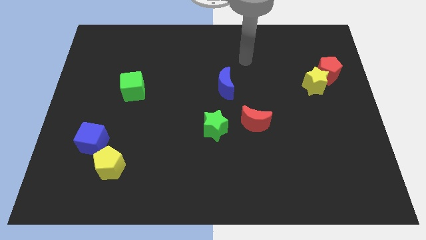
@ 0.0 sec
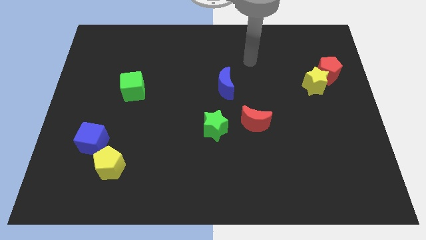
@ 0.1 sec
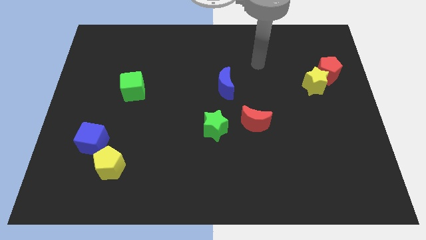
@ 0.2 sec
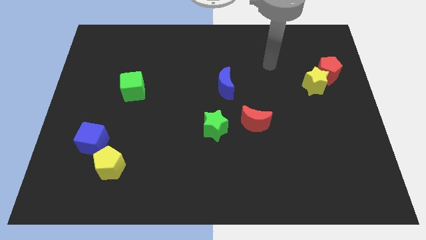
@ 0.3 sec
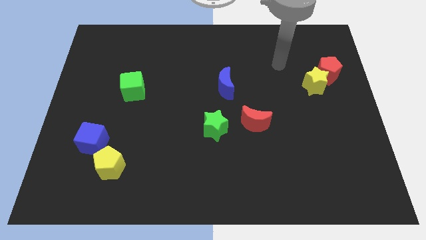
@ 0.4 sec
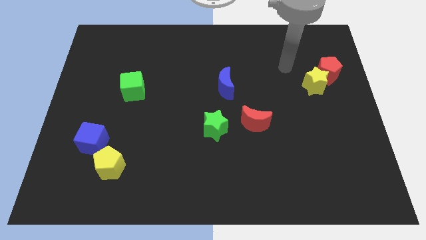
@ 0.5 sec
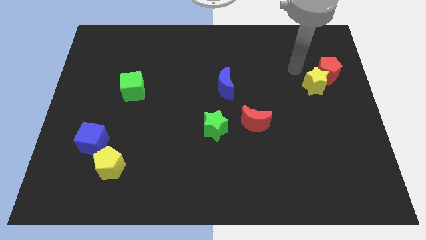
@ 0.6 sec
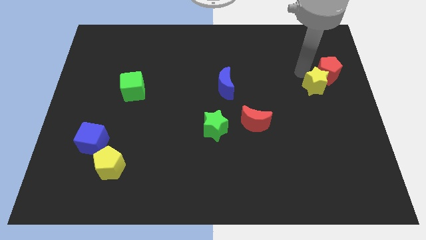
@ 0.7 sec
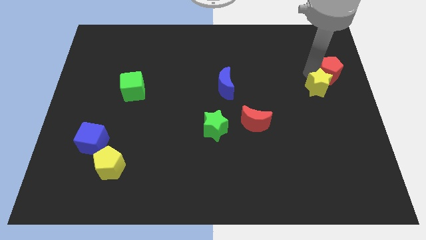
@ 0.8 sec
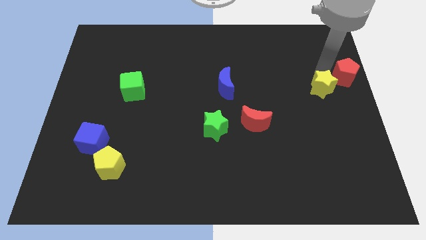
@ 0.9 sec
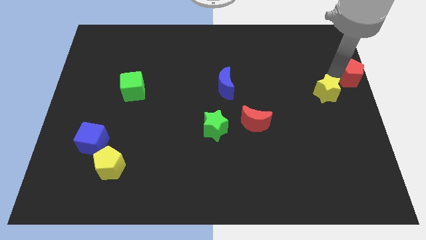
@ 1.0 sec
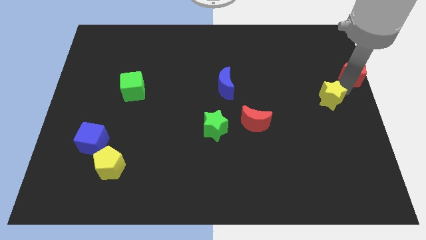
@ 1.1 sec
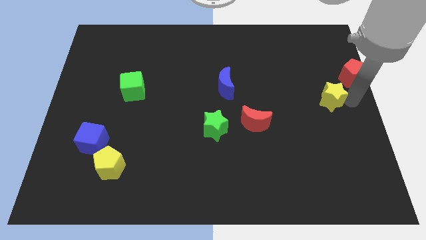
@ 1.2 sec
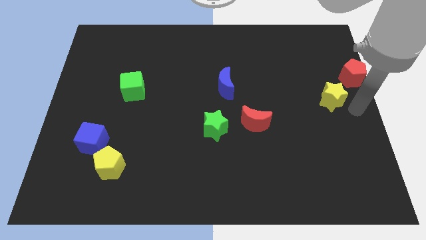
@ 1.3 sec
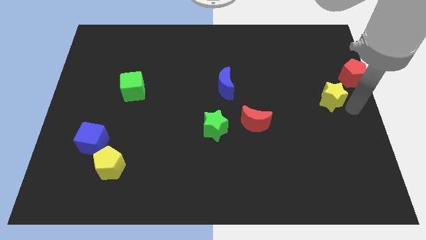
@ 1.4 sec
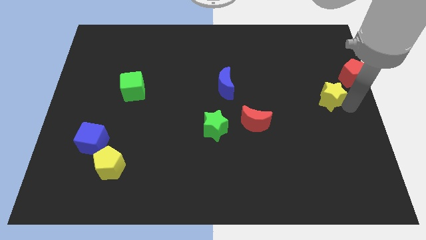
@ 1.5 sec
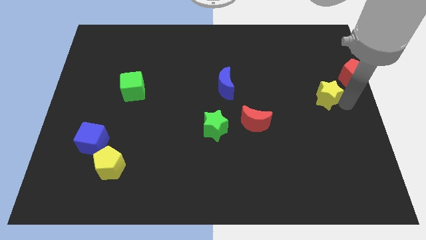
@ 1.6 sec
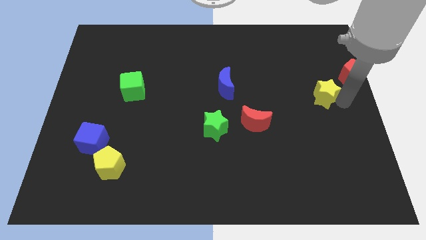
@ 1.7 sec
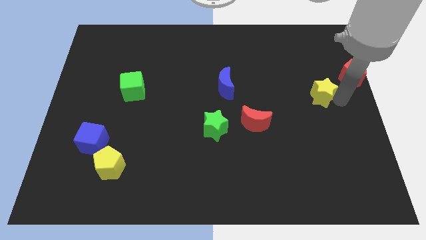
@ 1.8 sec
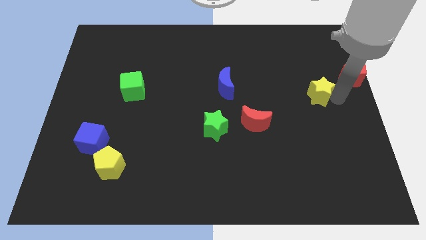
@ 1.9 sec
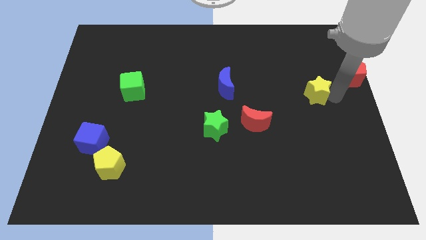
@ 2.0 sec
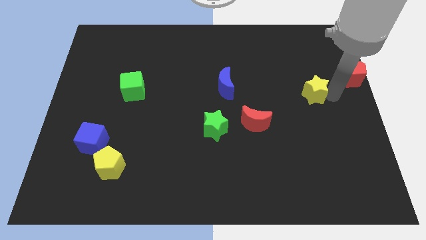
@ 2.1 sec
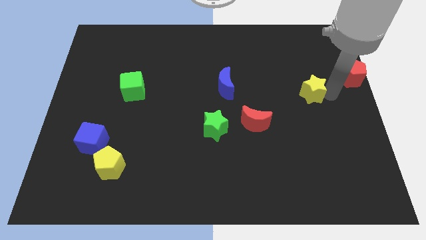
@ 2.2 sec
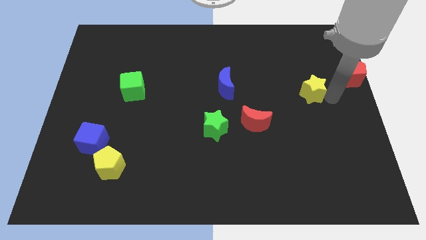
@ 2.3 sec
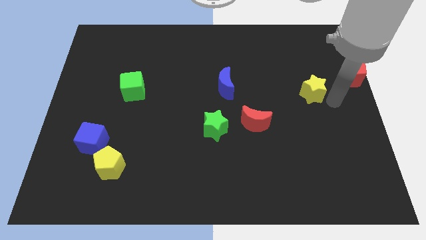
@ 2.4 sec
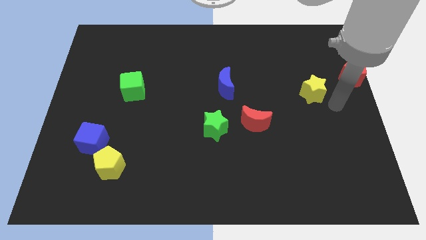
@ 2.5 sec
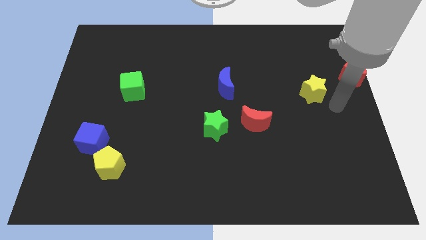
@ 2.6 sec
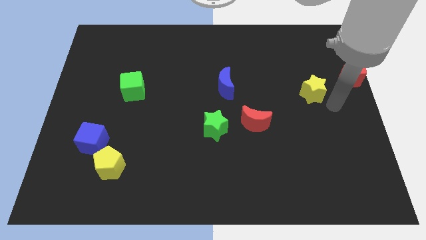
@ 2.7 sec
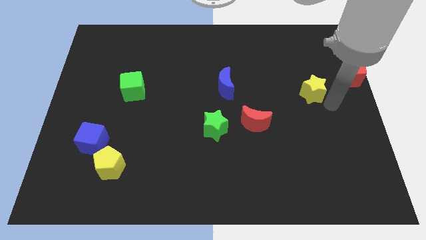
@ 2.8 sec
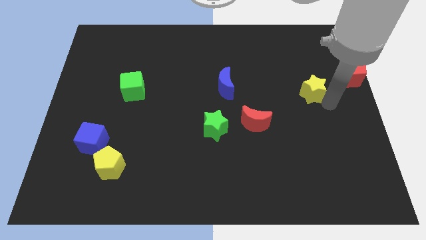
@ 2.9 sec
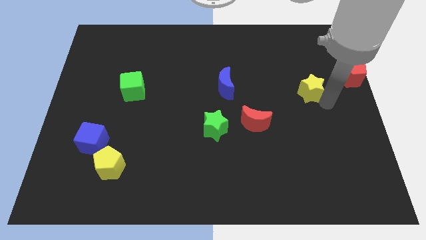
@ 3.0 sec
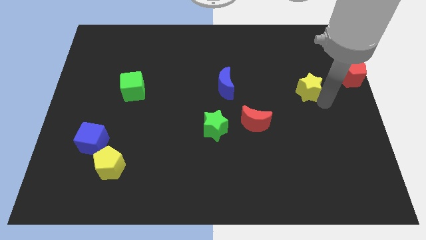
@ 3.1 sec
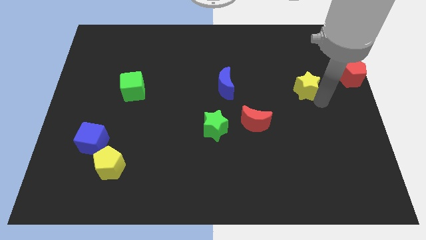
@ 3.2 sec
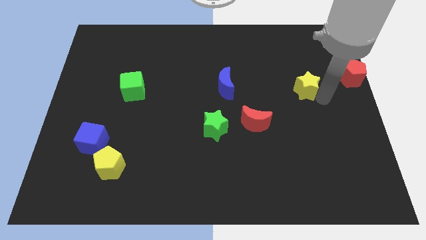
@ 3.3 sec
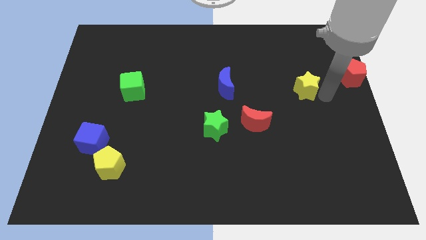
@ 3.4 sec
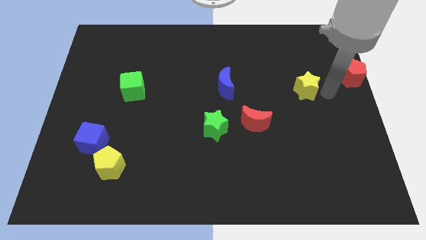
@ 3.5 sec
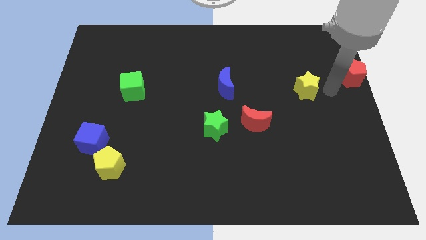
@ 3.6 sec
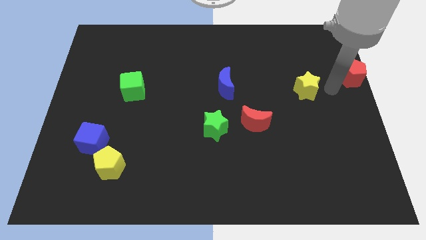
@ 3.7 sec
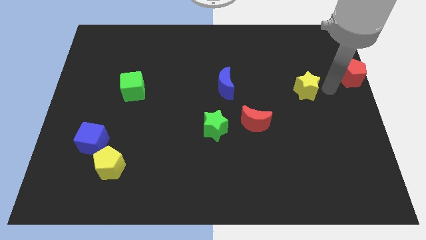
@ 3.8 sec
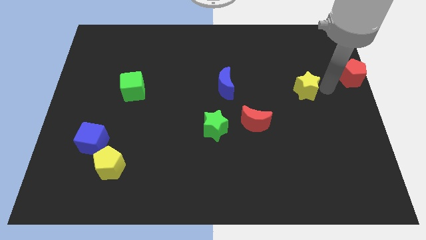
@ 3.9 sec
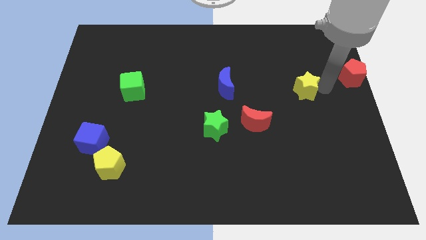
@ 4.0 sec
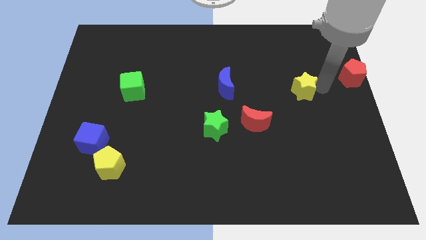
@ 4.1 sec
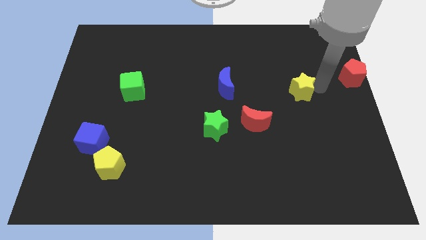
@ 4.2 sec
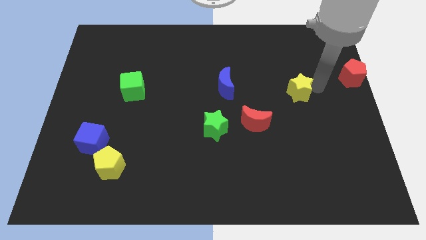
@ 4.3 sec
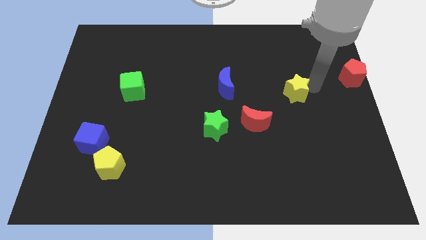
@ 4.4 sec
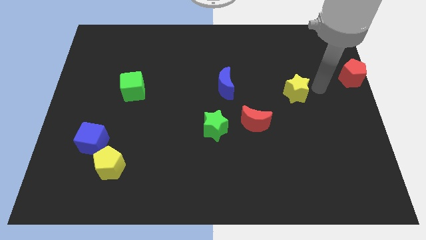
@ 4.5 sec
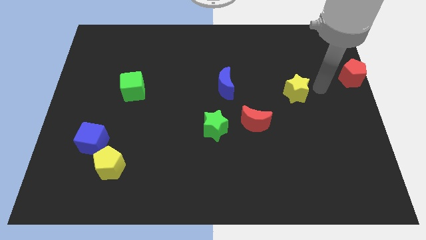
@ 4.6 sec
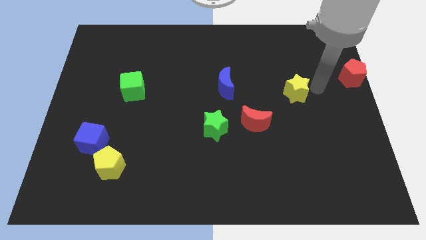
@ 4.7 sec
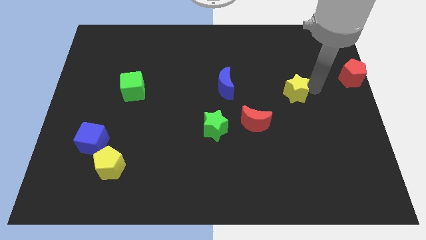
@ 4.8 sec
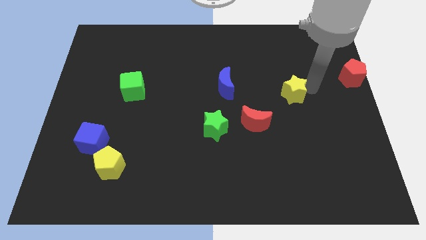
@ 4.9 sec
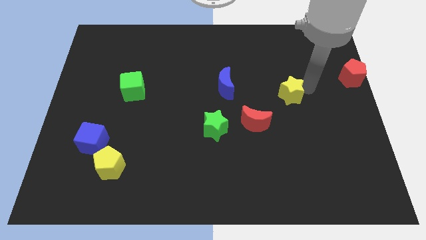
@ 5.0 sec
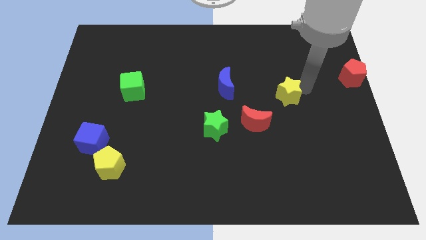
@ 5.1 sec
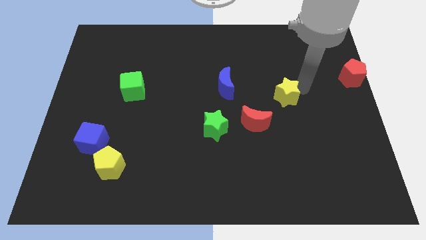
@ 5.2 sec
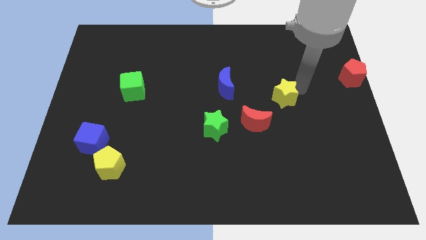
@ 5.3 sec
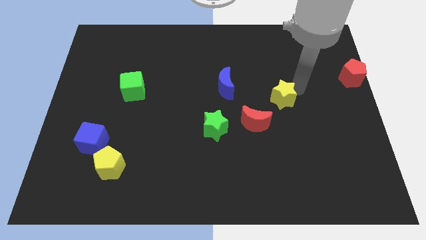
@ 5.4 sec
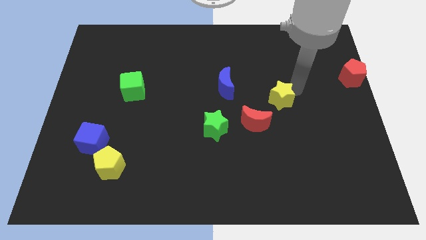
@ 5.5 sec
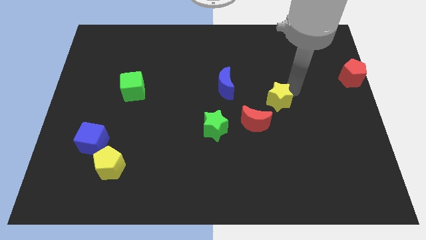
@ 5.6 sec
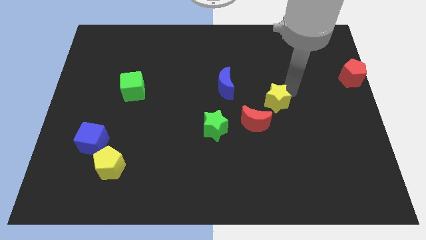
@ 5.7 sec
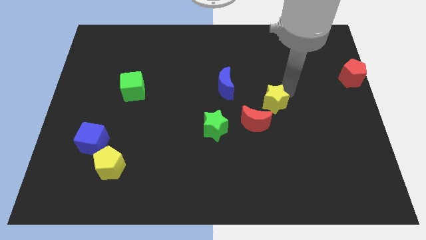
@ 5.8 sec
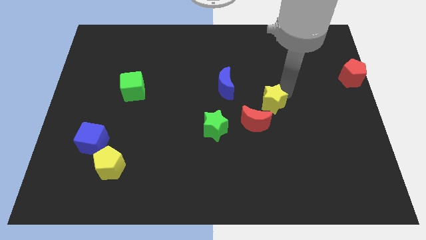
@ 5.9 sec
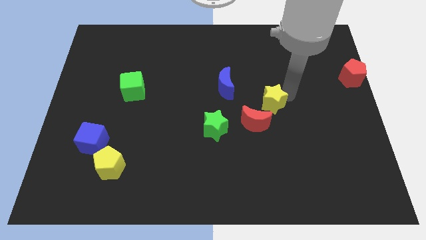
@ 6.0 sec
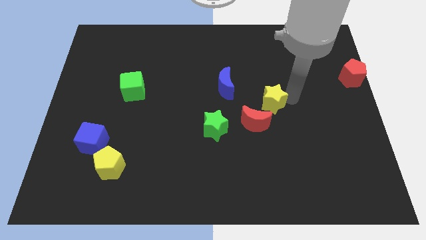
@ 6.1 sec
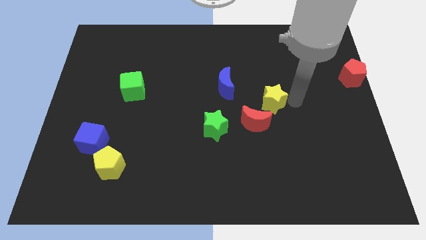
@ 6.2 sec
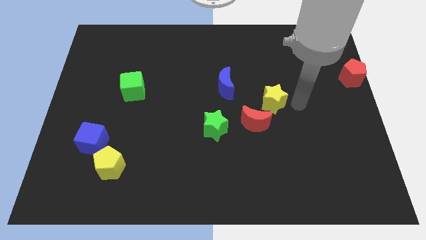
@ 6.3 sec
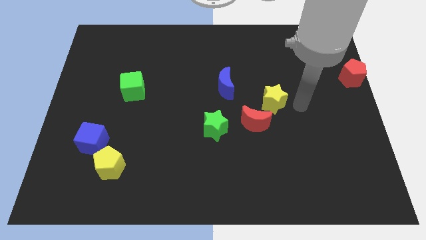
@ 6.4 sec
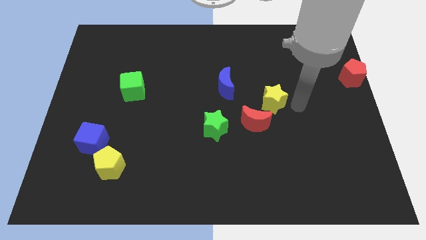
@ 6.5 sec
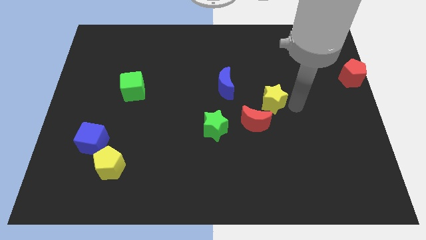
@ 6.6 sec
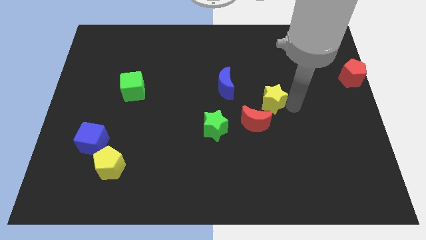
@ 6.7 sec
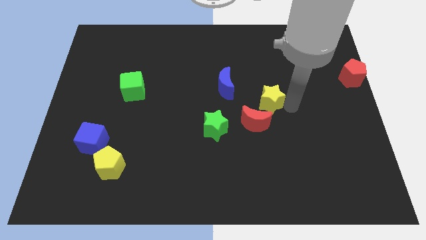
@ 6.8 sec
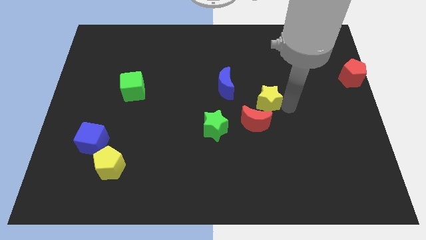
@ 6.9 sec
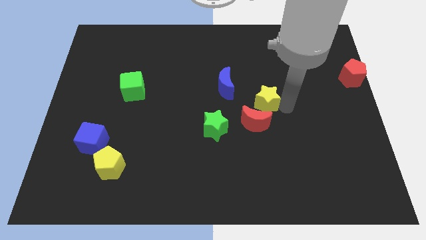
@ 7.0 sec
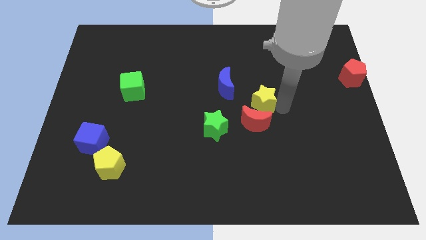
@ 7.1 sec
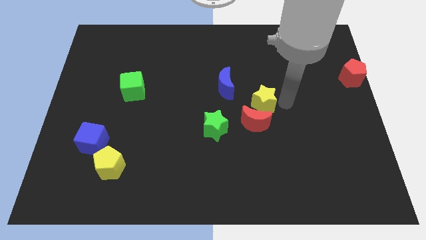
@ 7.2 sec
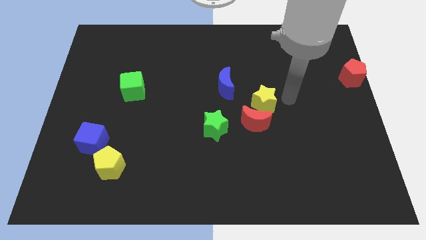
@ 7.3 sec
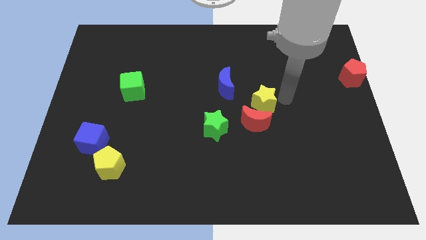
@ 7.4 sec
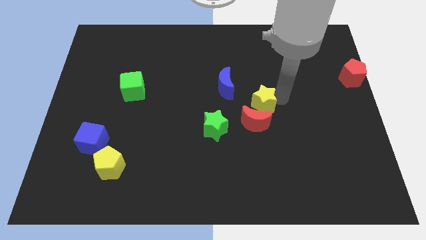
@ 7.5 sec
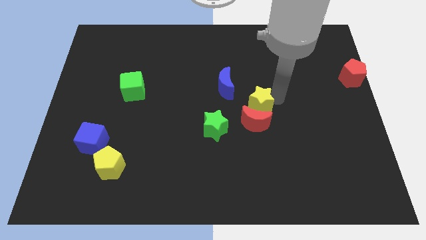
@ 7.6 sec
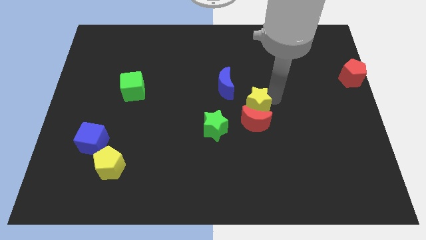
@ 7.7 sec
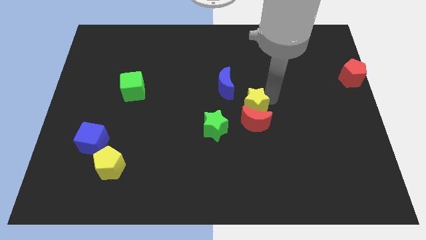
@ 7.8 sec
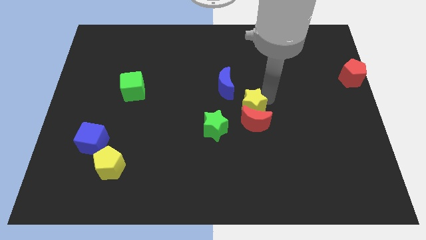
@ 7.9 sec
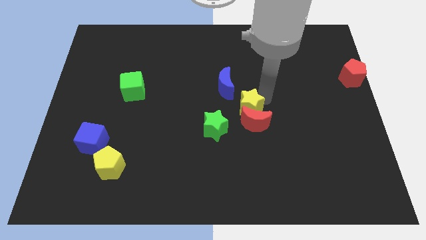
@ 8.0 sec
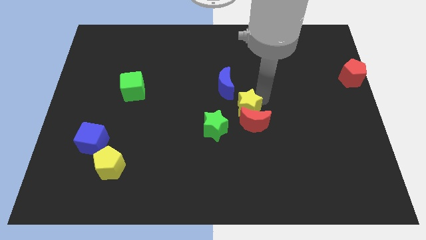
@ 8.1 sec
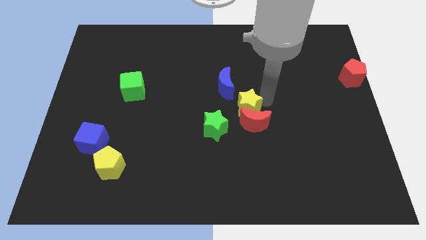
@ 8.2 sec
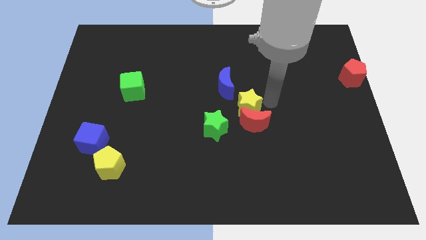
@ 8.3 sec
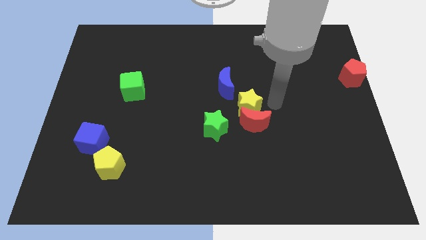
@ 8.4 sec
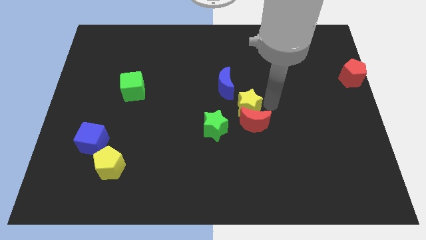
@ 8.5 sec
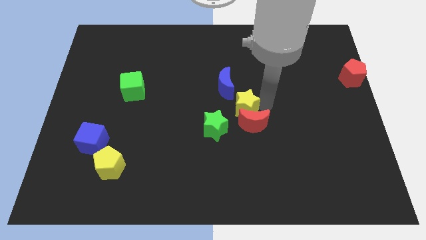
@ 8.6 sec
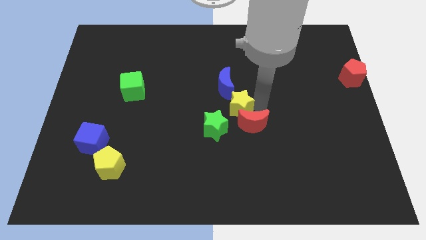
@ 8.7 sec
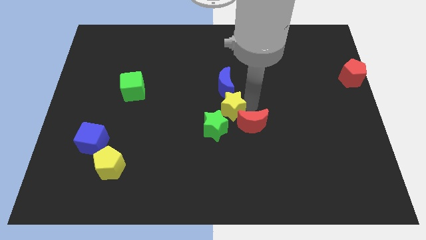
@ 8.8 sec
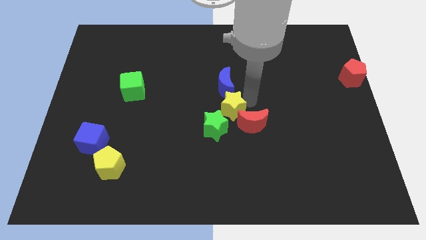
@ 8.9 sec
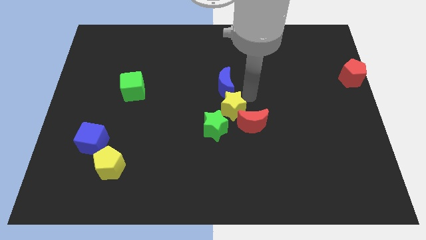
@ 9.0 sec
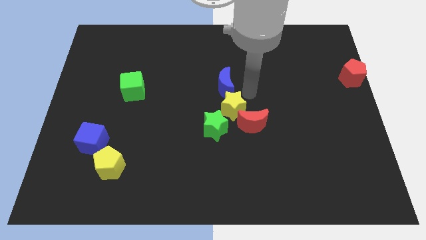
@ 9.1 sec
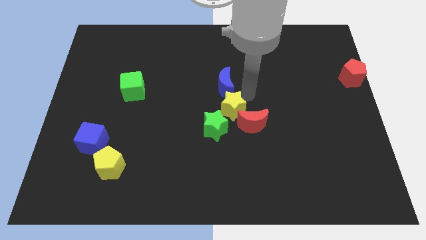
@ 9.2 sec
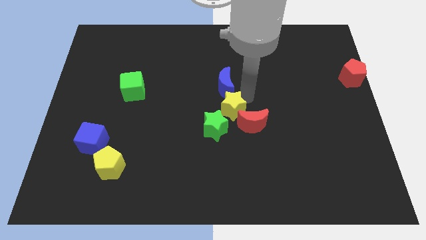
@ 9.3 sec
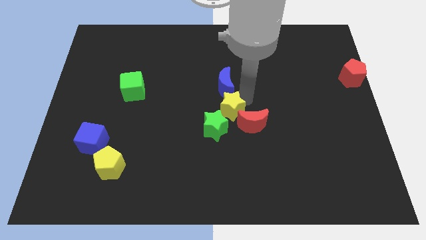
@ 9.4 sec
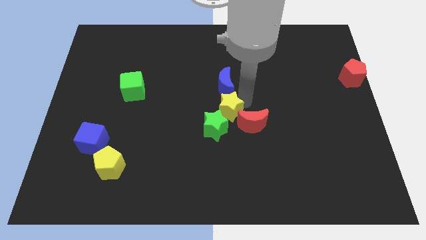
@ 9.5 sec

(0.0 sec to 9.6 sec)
push the yellow star towards the green star
